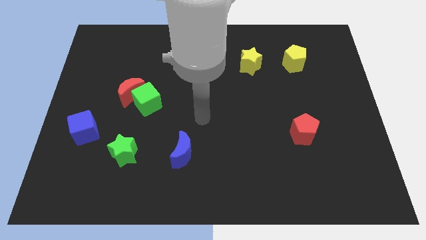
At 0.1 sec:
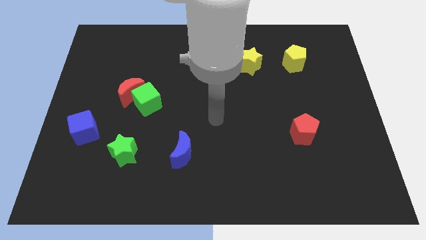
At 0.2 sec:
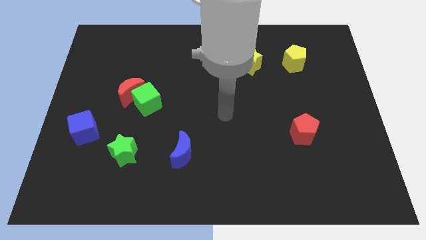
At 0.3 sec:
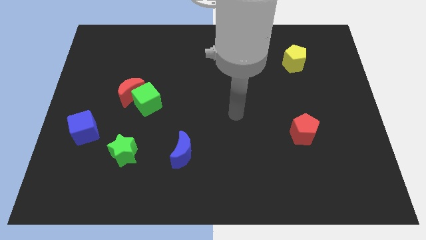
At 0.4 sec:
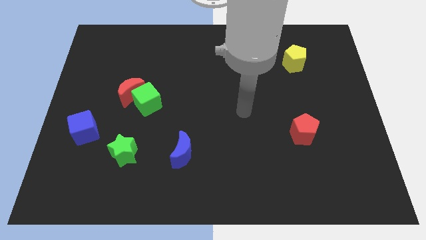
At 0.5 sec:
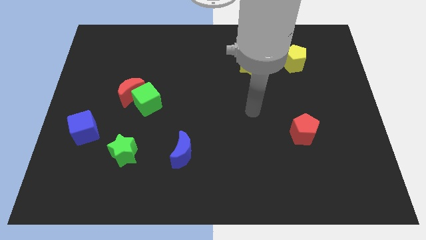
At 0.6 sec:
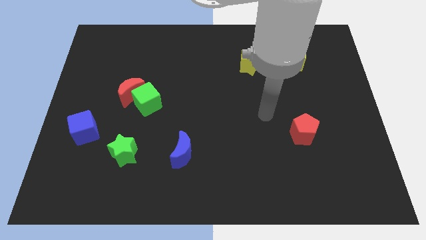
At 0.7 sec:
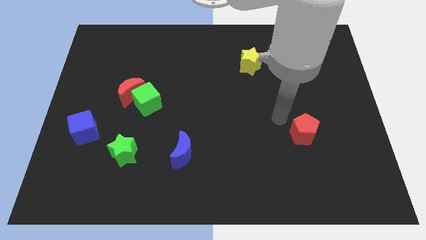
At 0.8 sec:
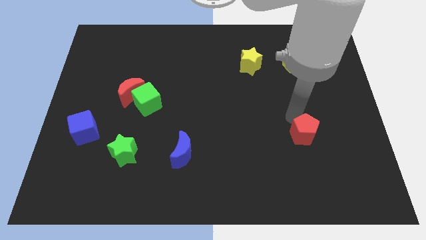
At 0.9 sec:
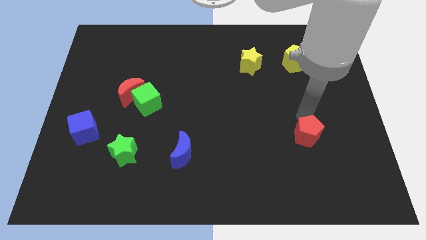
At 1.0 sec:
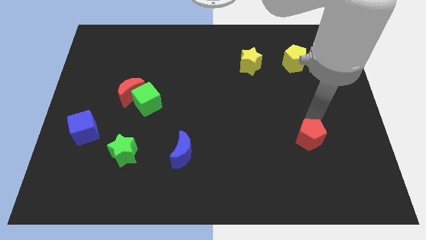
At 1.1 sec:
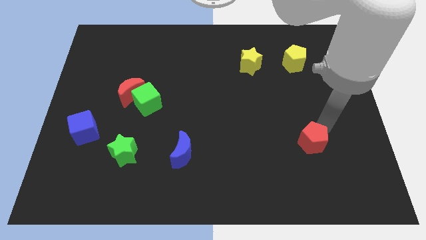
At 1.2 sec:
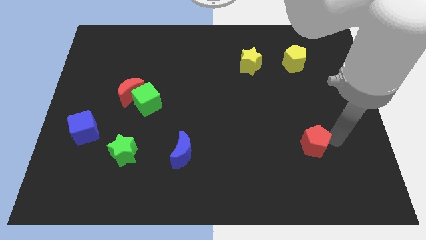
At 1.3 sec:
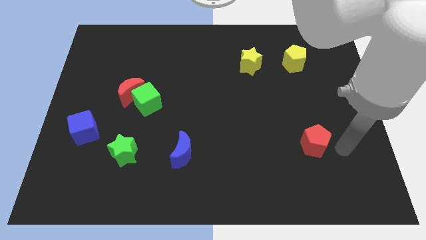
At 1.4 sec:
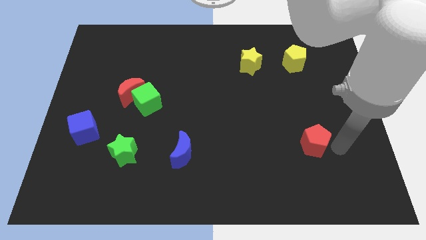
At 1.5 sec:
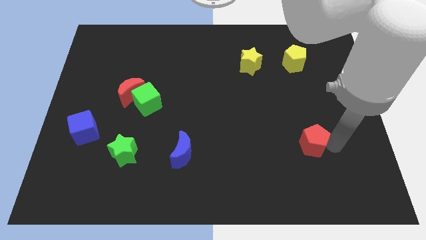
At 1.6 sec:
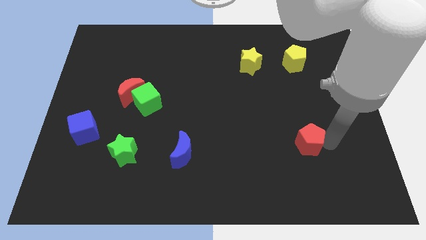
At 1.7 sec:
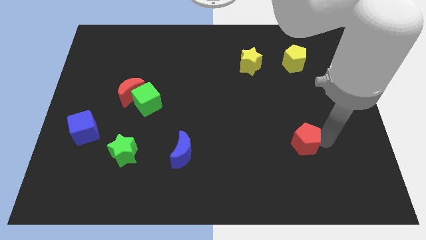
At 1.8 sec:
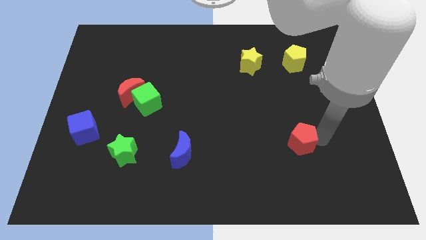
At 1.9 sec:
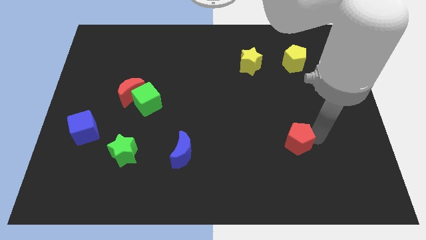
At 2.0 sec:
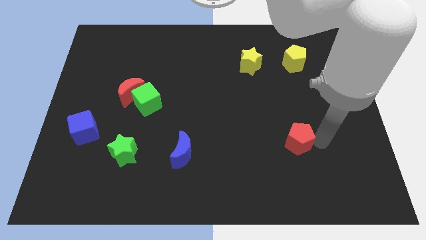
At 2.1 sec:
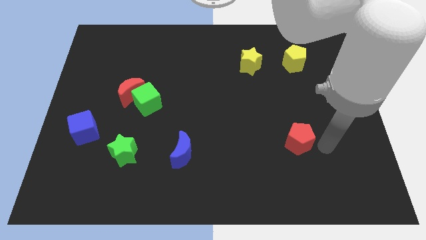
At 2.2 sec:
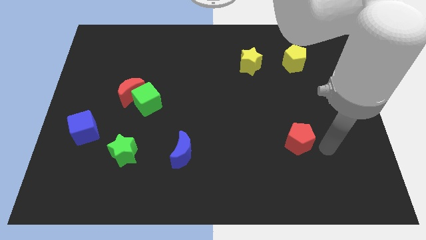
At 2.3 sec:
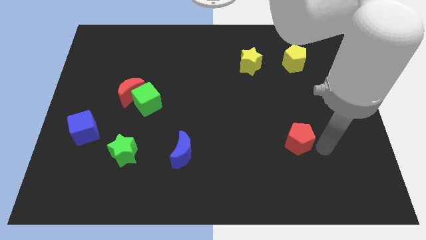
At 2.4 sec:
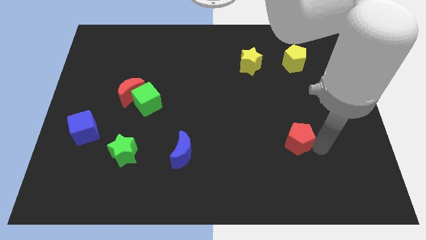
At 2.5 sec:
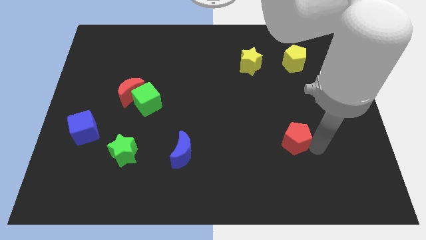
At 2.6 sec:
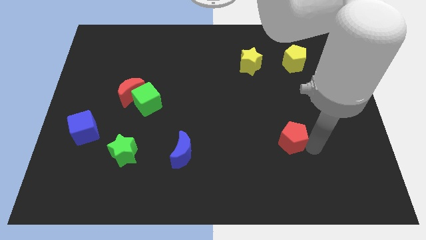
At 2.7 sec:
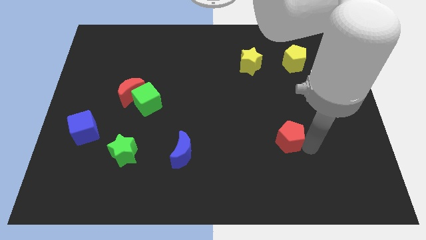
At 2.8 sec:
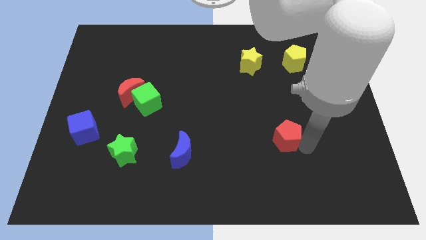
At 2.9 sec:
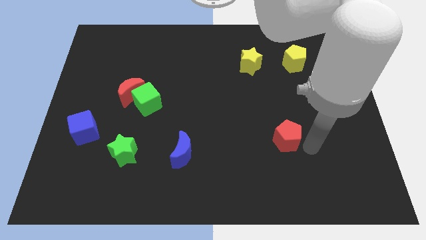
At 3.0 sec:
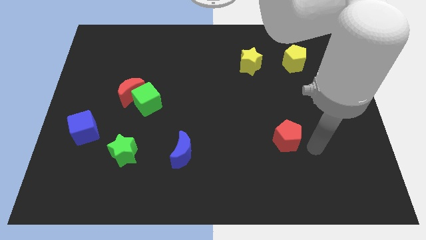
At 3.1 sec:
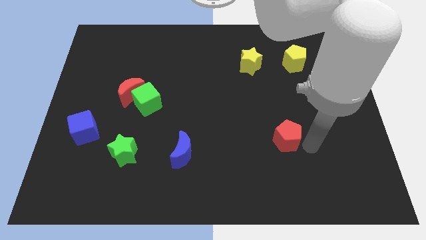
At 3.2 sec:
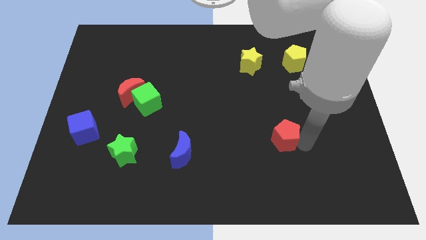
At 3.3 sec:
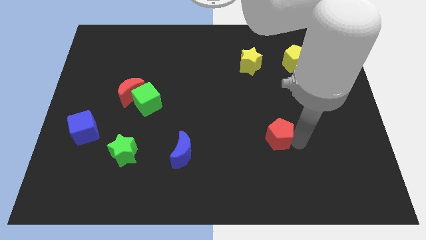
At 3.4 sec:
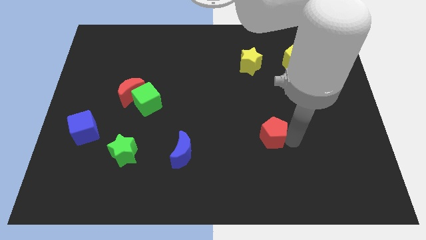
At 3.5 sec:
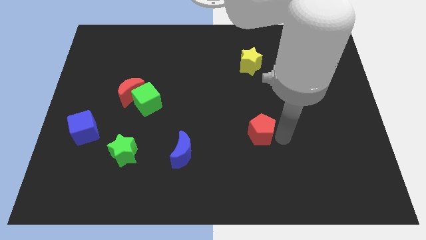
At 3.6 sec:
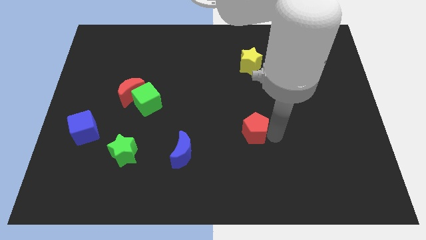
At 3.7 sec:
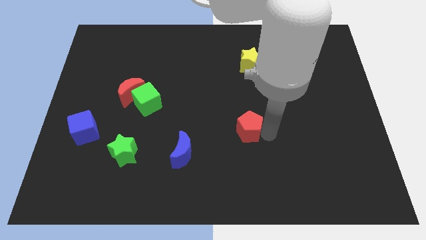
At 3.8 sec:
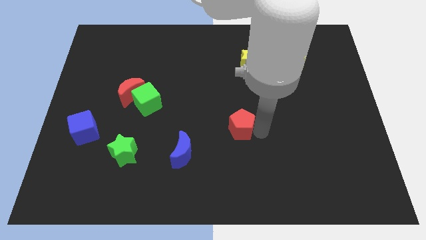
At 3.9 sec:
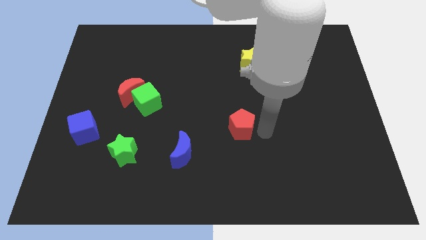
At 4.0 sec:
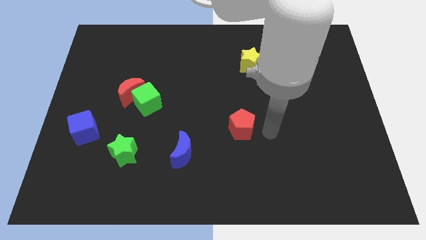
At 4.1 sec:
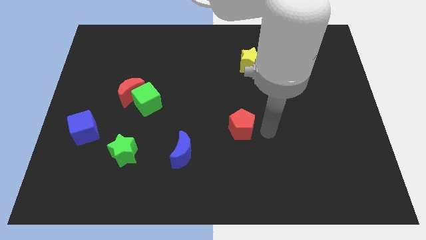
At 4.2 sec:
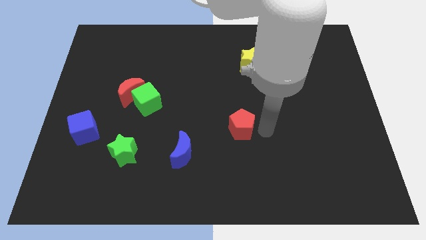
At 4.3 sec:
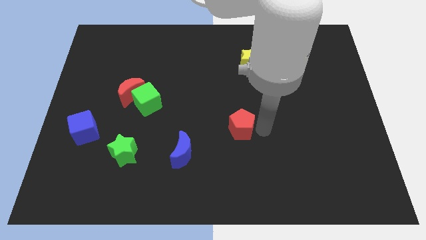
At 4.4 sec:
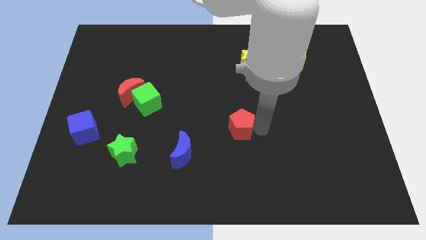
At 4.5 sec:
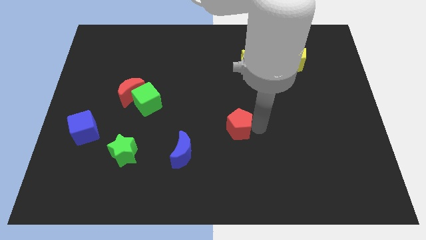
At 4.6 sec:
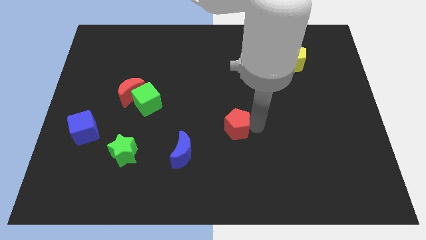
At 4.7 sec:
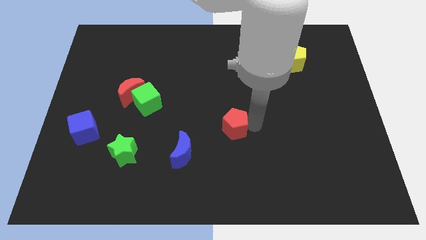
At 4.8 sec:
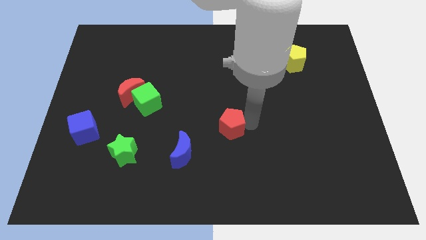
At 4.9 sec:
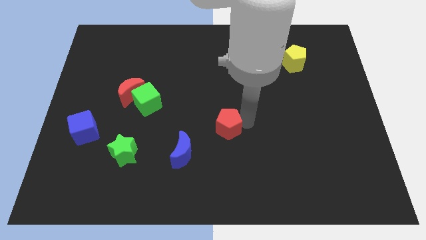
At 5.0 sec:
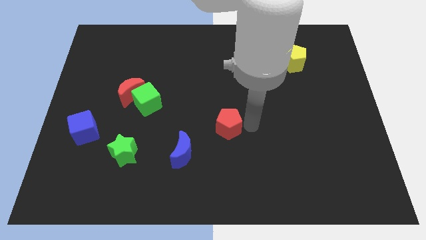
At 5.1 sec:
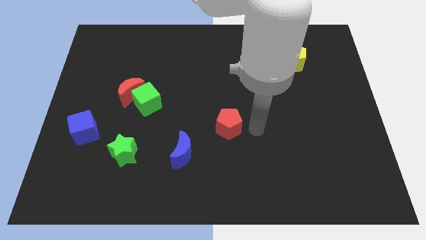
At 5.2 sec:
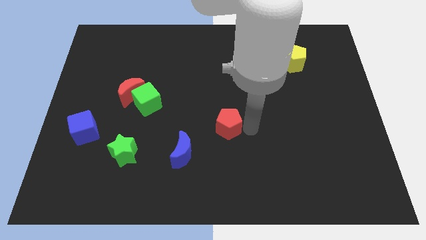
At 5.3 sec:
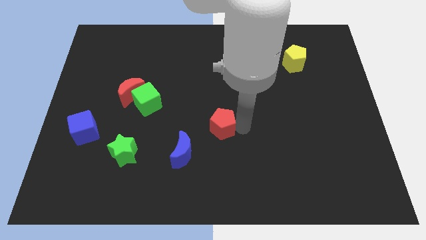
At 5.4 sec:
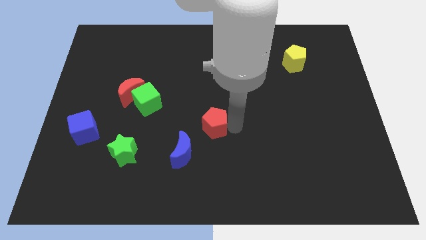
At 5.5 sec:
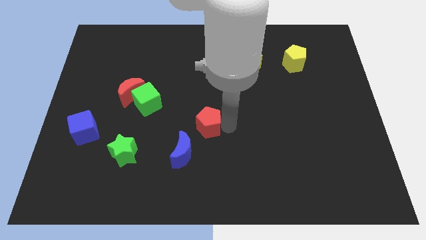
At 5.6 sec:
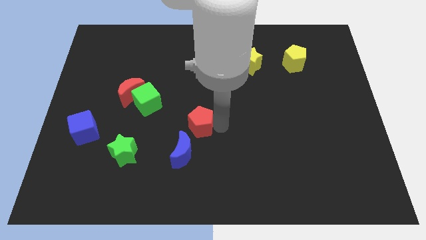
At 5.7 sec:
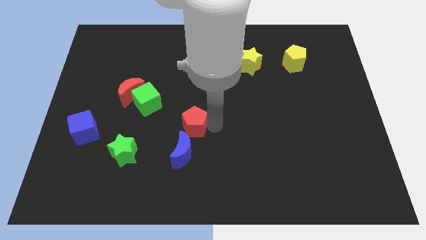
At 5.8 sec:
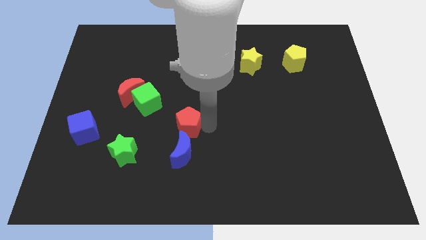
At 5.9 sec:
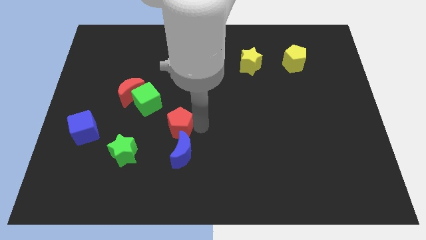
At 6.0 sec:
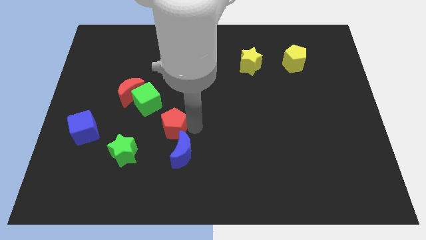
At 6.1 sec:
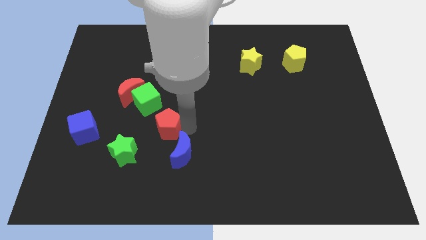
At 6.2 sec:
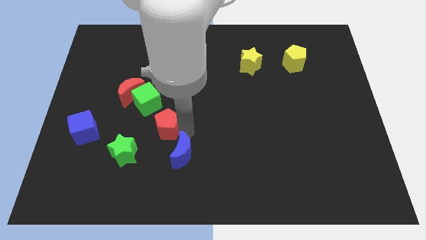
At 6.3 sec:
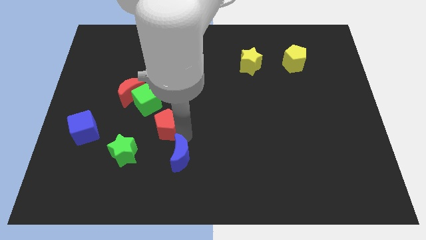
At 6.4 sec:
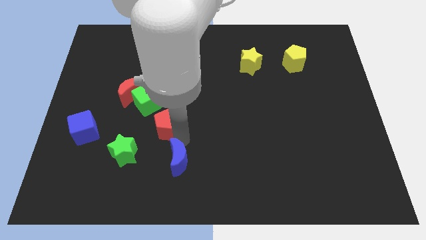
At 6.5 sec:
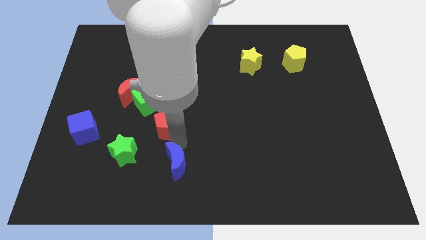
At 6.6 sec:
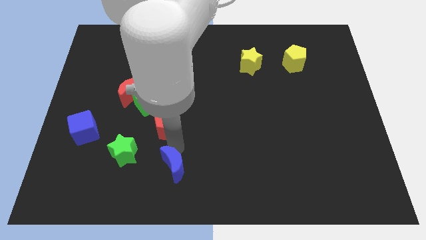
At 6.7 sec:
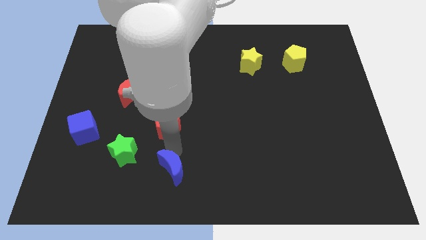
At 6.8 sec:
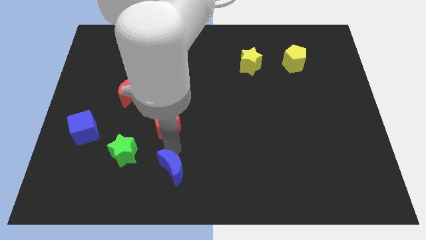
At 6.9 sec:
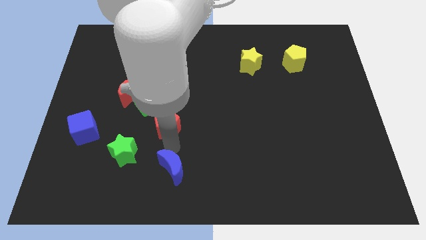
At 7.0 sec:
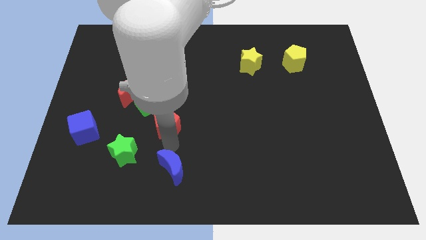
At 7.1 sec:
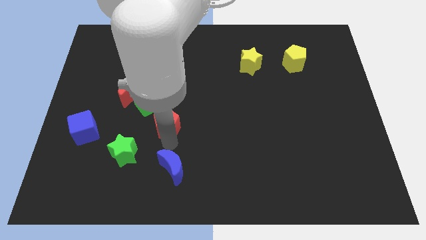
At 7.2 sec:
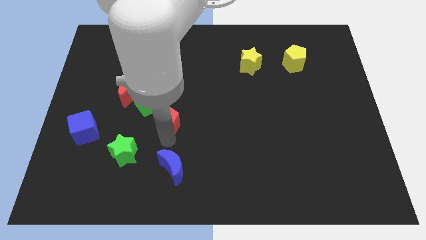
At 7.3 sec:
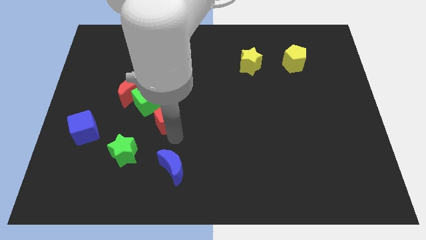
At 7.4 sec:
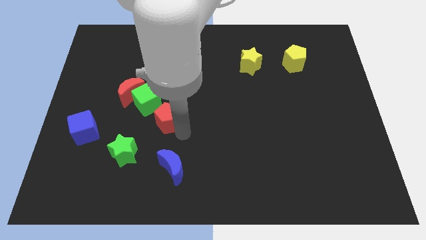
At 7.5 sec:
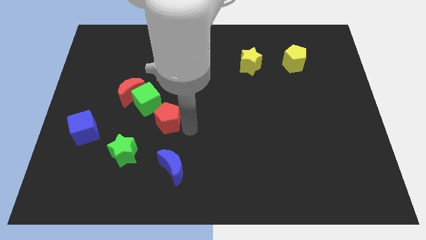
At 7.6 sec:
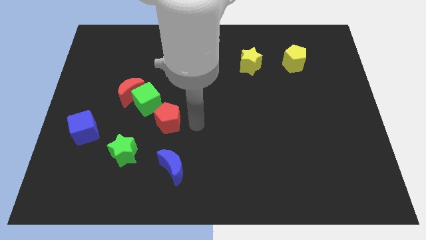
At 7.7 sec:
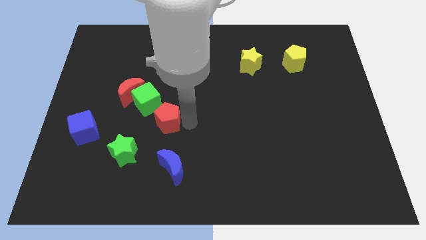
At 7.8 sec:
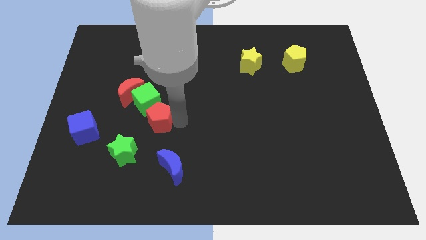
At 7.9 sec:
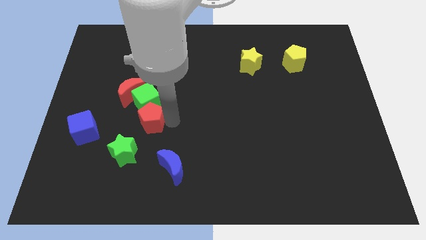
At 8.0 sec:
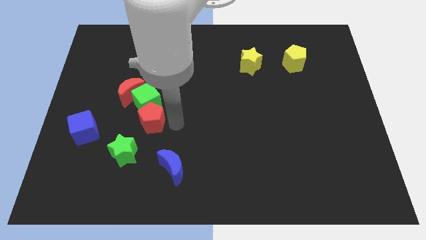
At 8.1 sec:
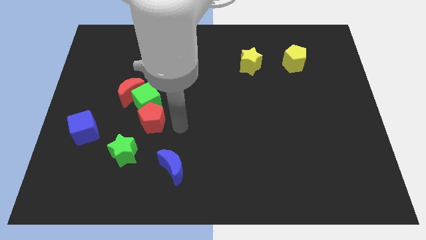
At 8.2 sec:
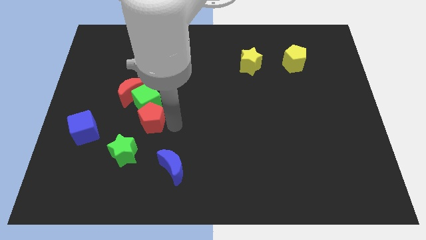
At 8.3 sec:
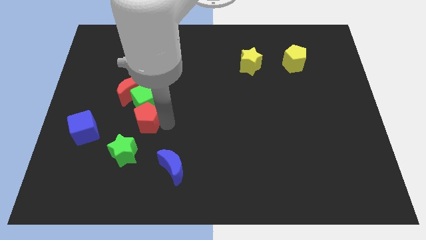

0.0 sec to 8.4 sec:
slide the red pentagon to the top side of the green star
